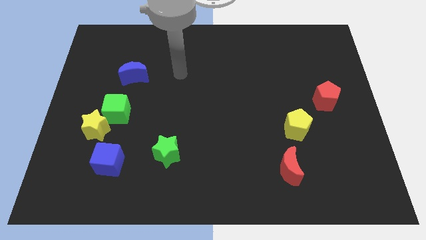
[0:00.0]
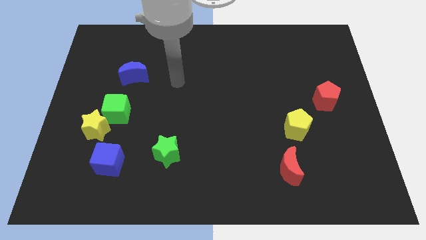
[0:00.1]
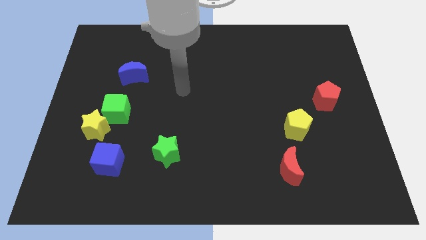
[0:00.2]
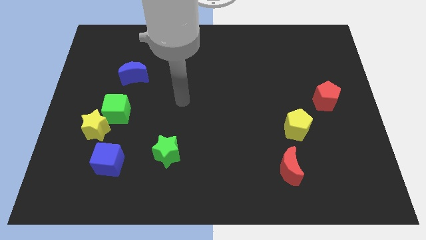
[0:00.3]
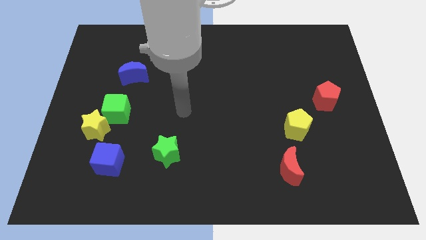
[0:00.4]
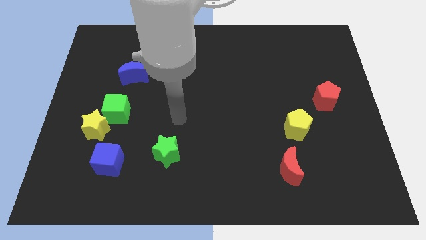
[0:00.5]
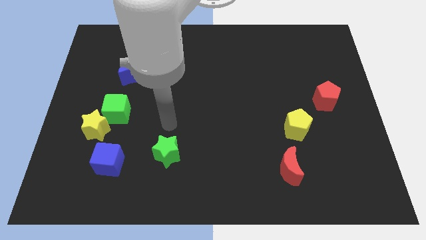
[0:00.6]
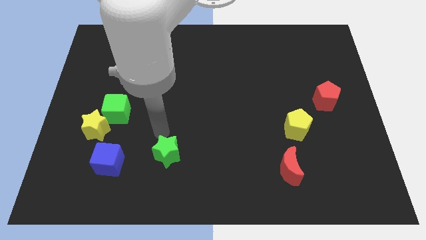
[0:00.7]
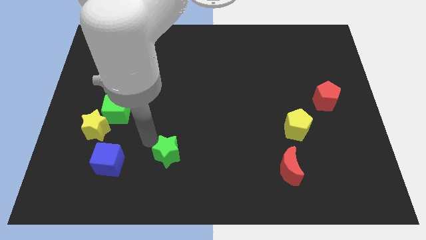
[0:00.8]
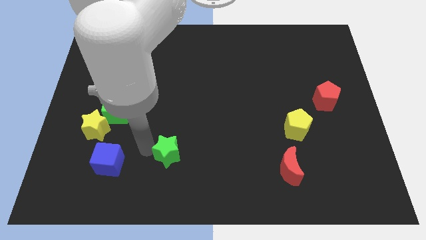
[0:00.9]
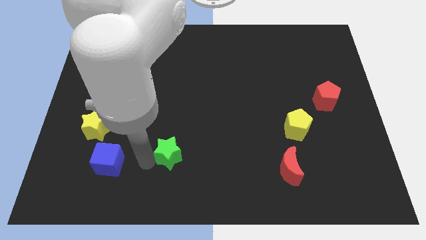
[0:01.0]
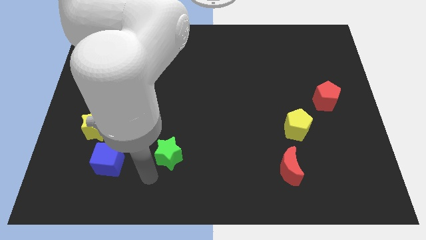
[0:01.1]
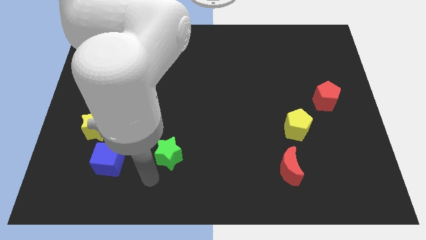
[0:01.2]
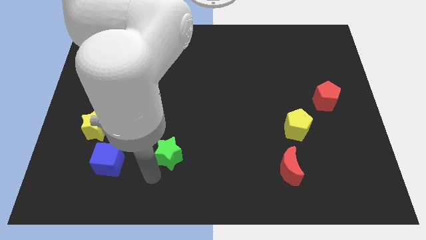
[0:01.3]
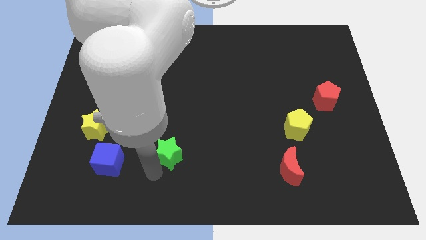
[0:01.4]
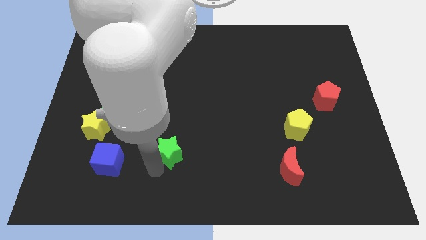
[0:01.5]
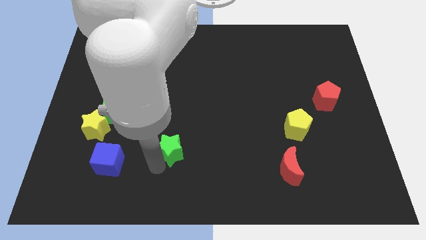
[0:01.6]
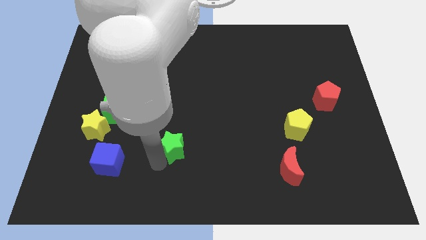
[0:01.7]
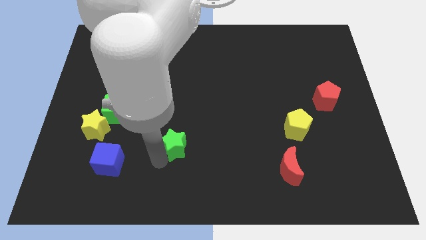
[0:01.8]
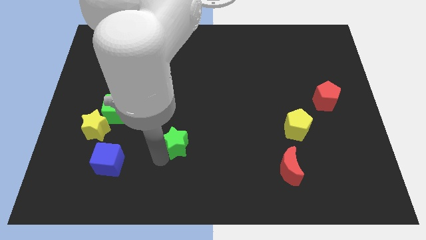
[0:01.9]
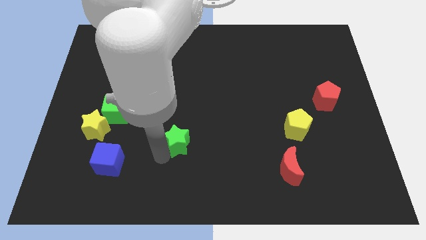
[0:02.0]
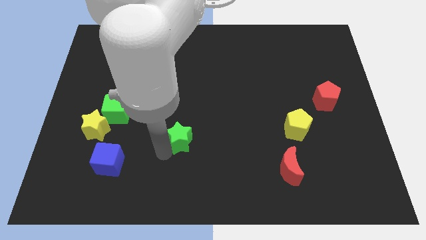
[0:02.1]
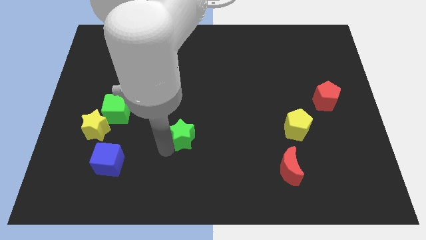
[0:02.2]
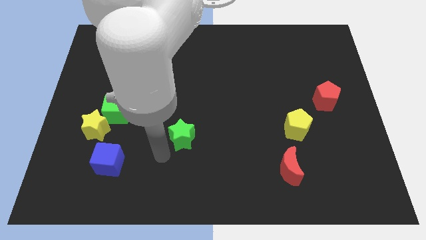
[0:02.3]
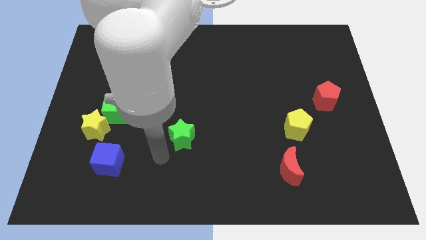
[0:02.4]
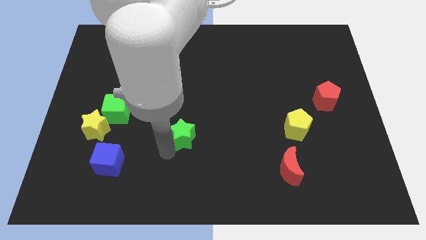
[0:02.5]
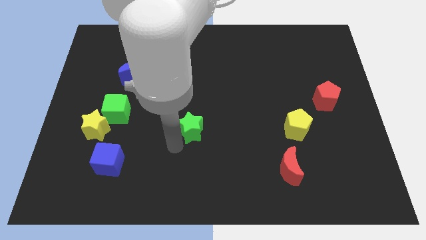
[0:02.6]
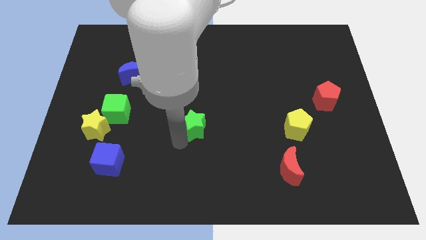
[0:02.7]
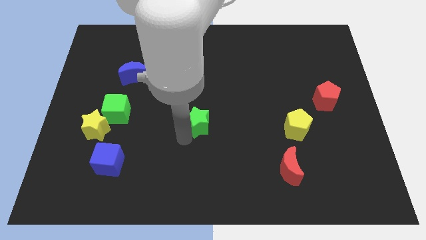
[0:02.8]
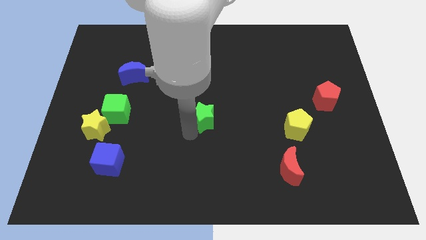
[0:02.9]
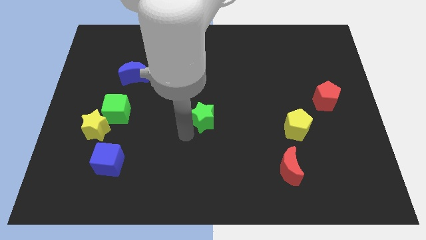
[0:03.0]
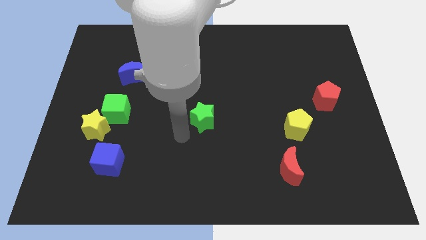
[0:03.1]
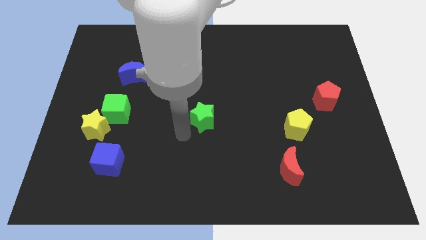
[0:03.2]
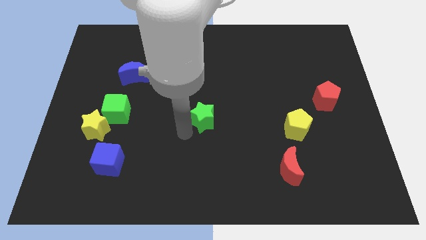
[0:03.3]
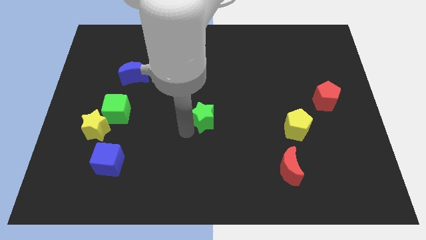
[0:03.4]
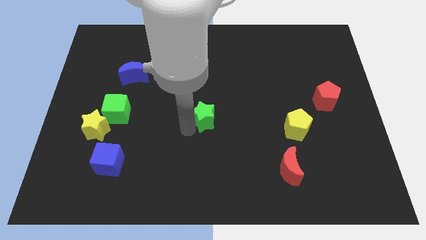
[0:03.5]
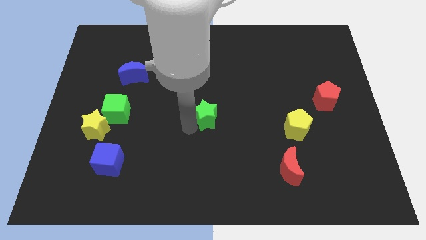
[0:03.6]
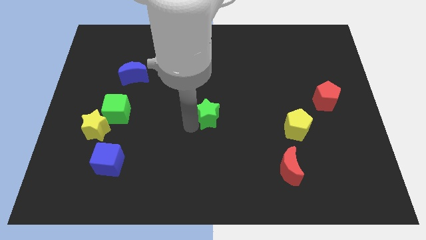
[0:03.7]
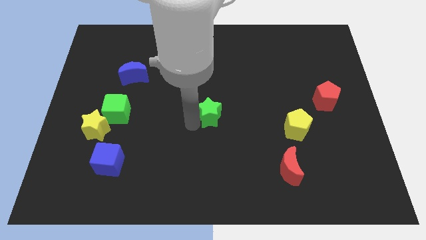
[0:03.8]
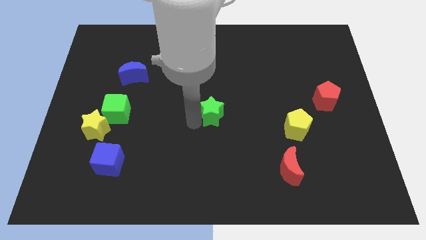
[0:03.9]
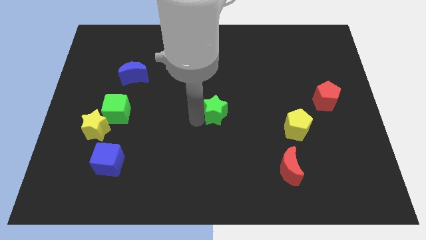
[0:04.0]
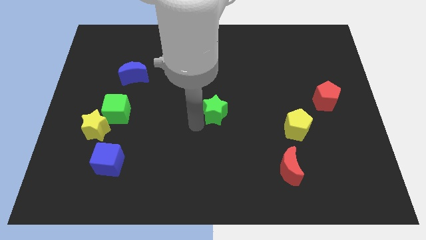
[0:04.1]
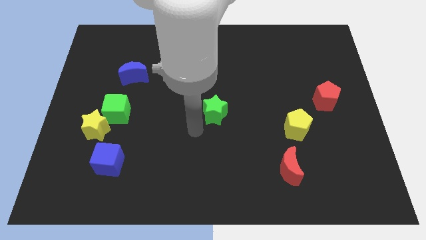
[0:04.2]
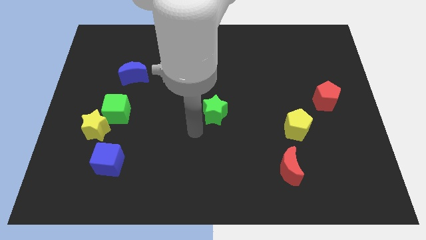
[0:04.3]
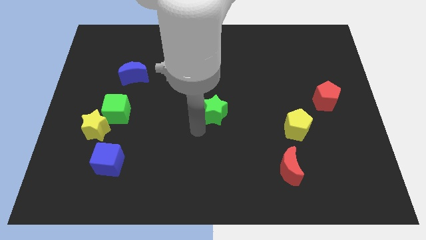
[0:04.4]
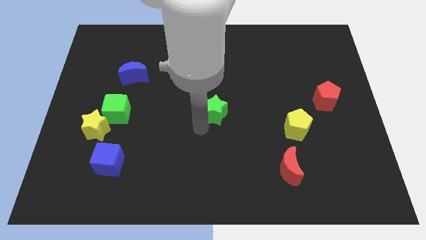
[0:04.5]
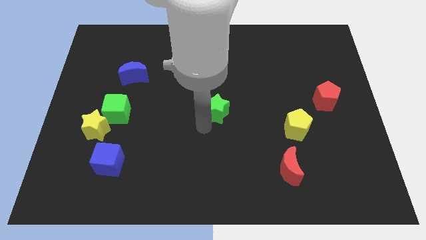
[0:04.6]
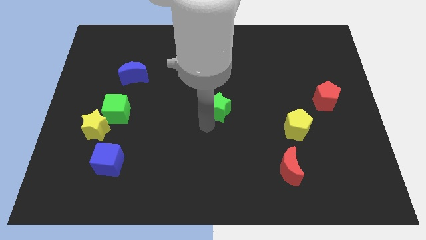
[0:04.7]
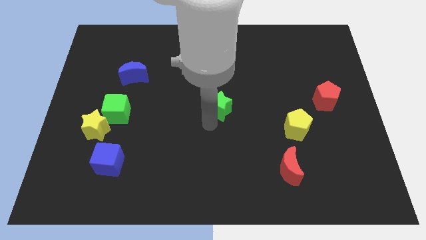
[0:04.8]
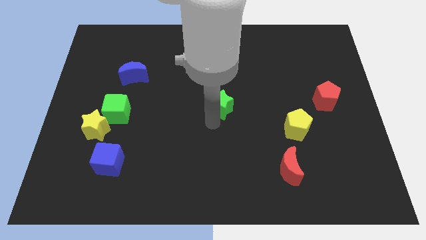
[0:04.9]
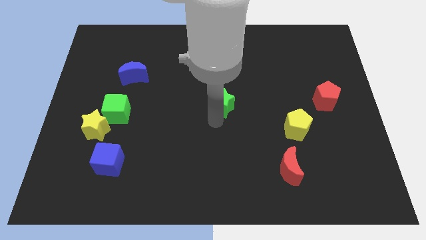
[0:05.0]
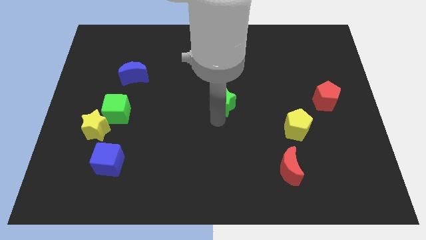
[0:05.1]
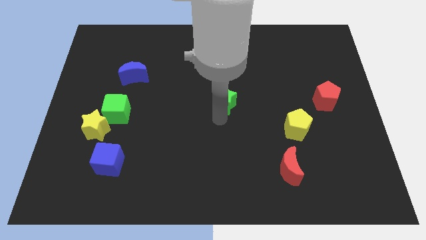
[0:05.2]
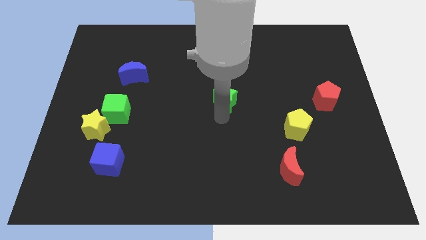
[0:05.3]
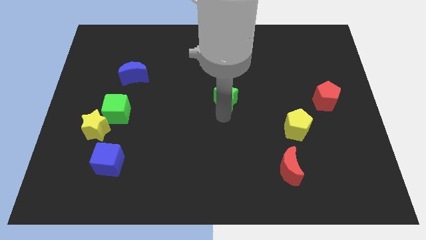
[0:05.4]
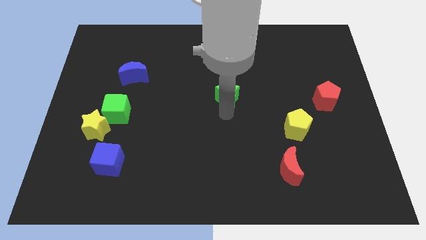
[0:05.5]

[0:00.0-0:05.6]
slide the green star up and to the right

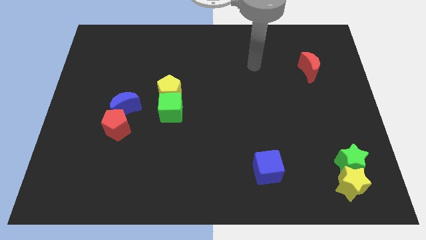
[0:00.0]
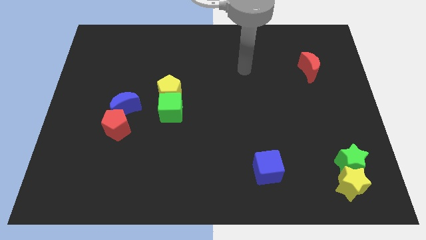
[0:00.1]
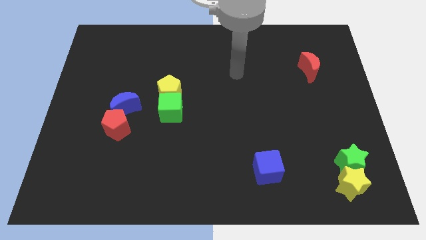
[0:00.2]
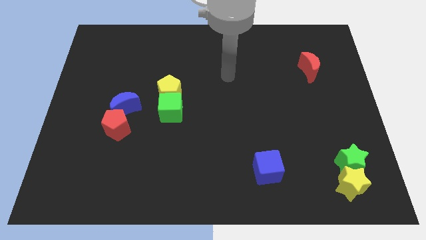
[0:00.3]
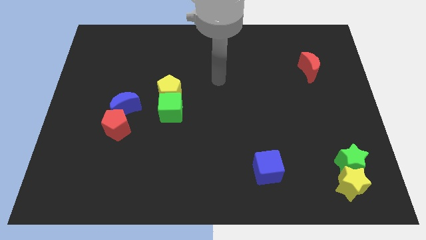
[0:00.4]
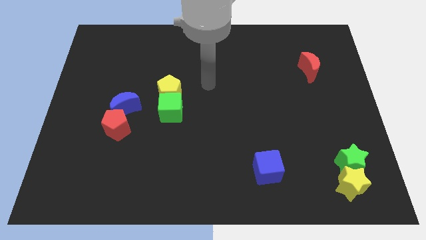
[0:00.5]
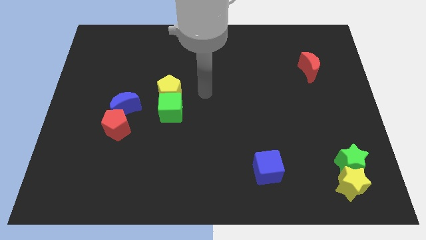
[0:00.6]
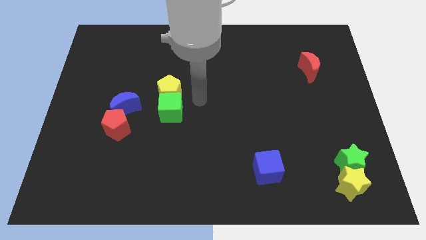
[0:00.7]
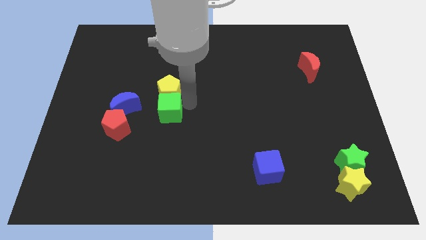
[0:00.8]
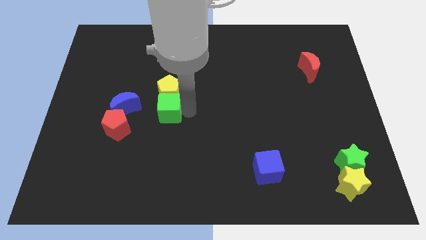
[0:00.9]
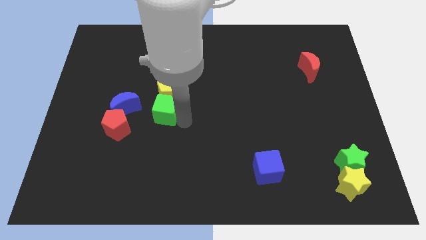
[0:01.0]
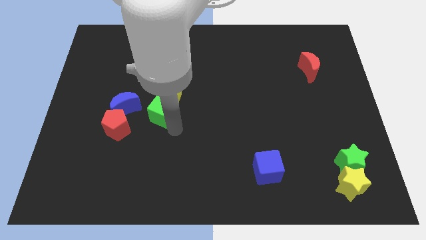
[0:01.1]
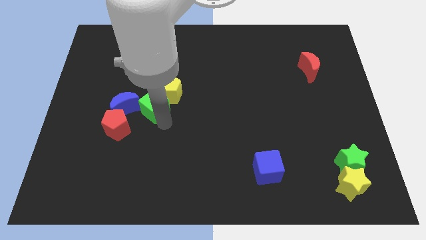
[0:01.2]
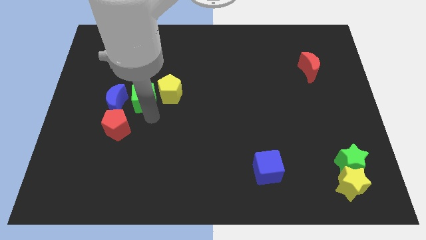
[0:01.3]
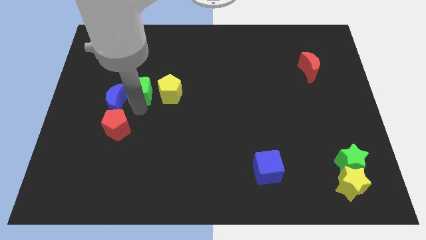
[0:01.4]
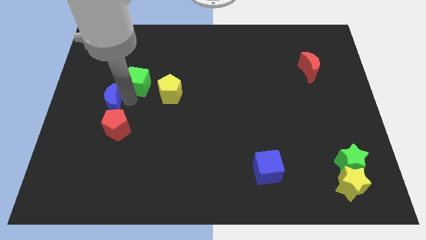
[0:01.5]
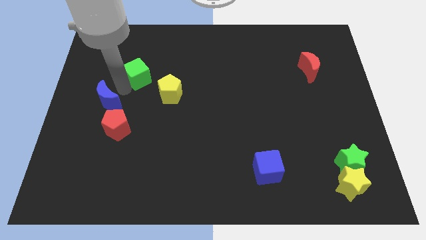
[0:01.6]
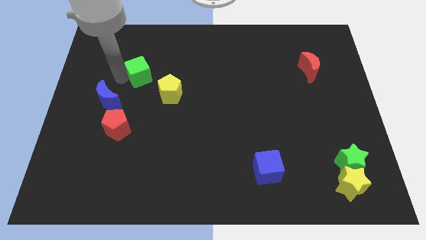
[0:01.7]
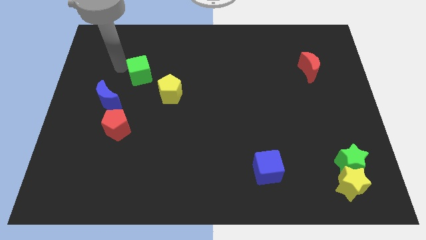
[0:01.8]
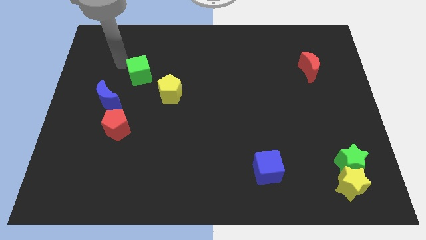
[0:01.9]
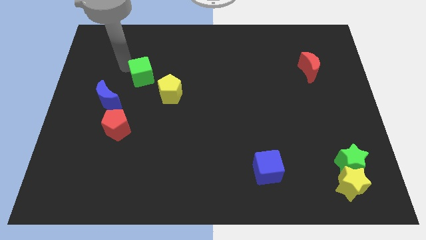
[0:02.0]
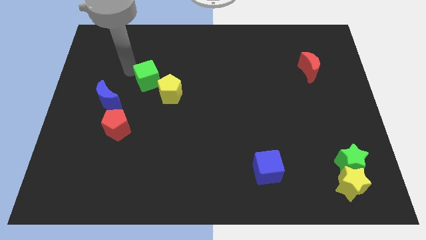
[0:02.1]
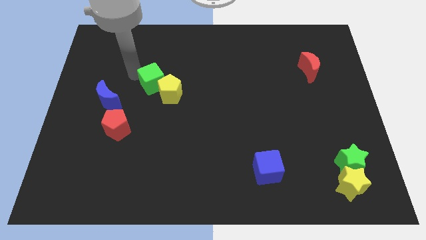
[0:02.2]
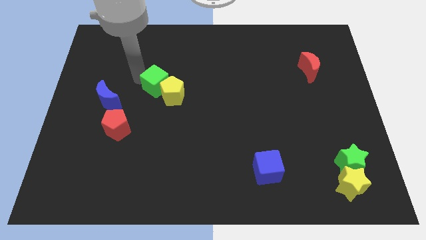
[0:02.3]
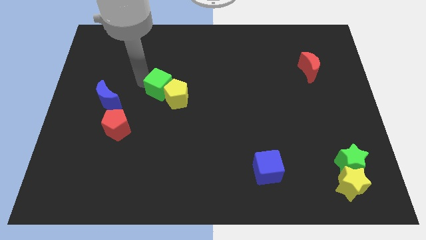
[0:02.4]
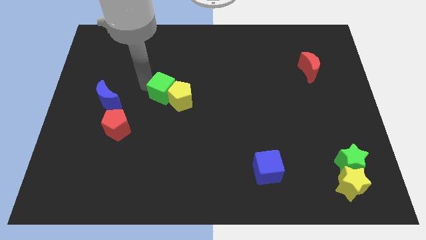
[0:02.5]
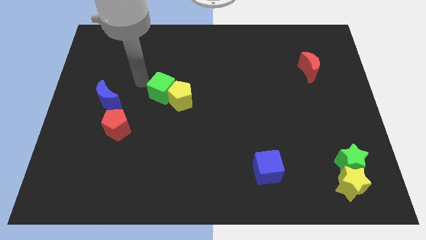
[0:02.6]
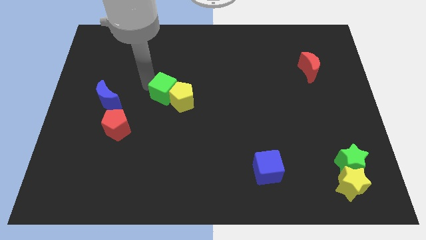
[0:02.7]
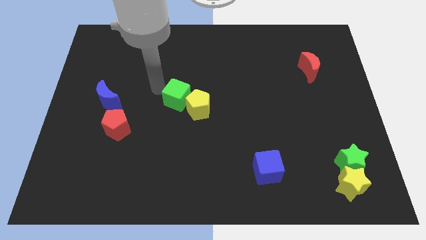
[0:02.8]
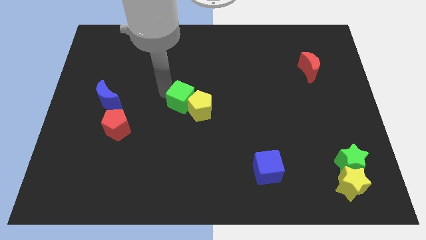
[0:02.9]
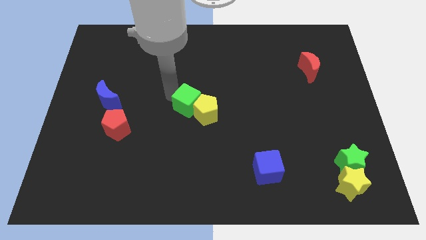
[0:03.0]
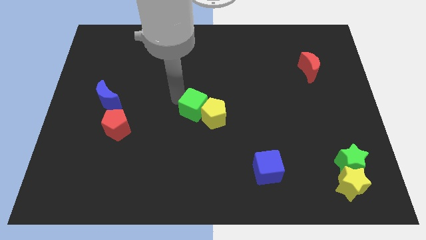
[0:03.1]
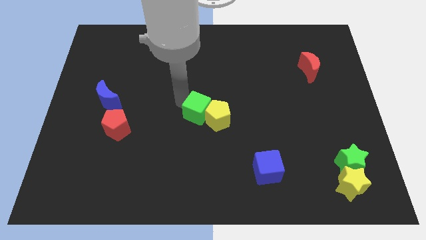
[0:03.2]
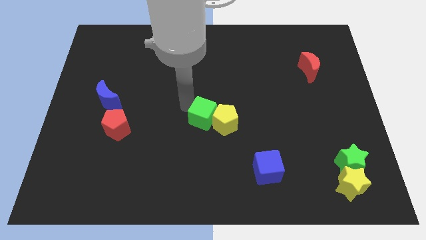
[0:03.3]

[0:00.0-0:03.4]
push the green cube right somewhat
